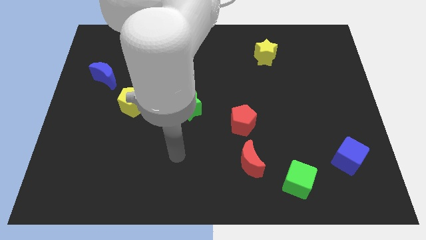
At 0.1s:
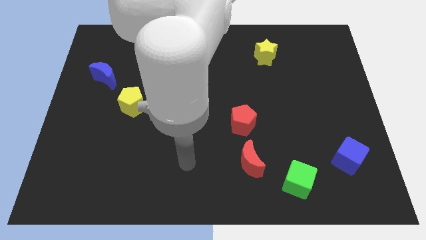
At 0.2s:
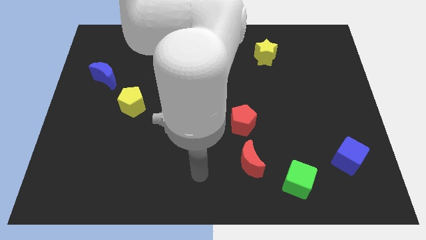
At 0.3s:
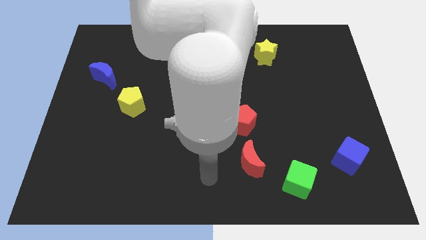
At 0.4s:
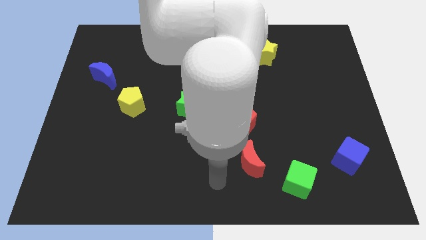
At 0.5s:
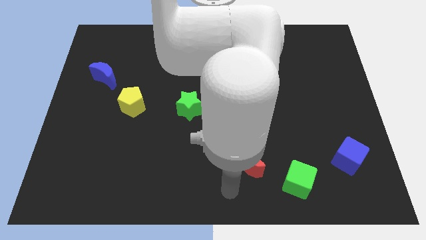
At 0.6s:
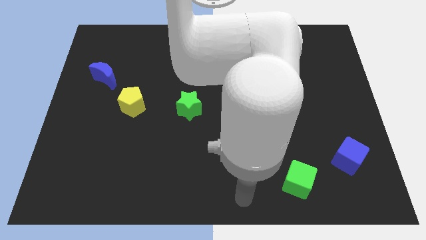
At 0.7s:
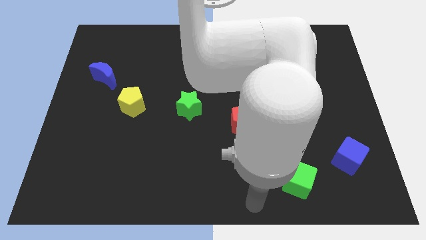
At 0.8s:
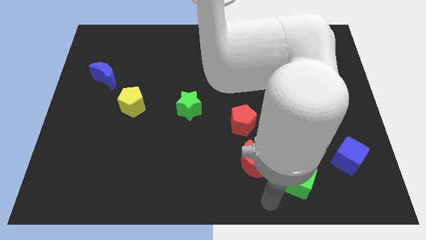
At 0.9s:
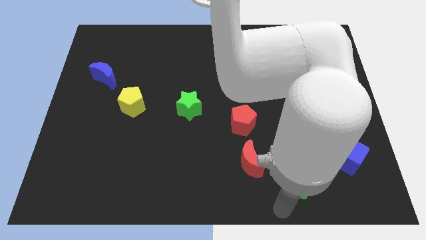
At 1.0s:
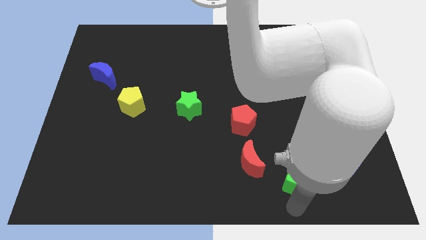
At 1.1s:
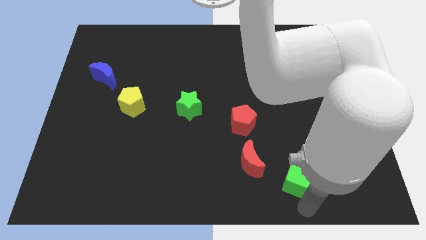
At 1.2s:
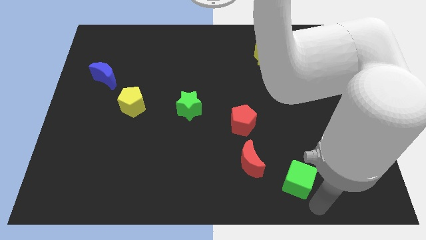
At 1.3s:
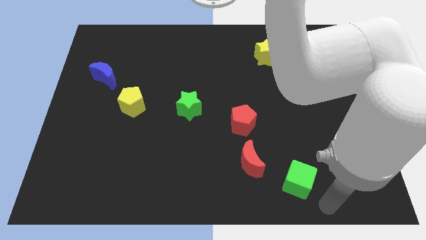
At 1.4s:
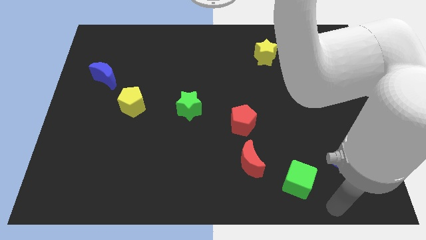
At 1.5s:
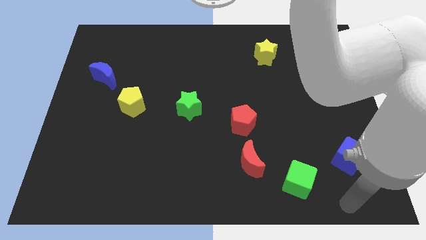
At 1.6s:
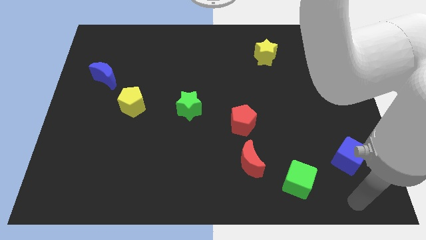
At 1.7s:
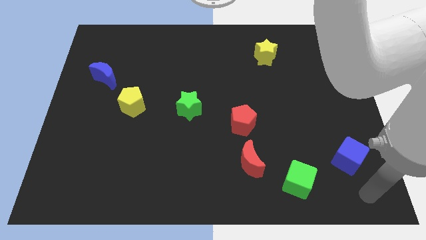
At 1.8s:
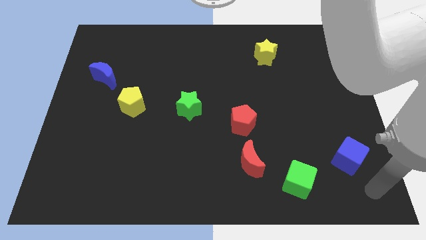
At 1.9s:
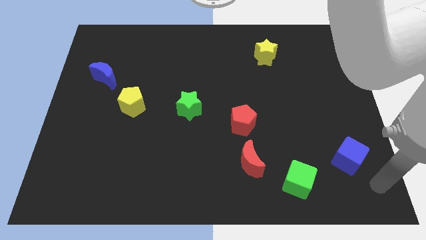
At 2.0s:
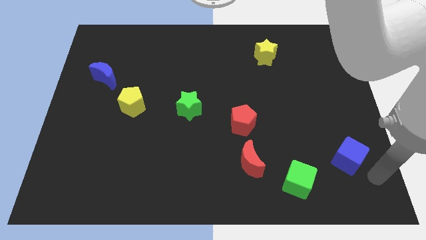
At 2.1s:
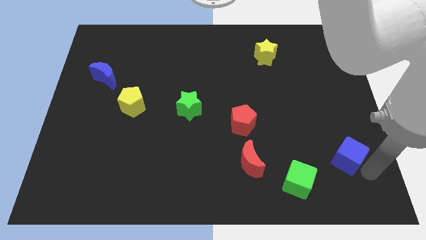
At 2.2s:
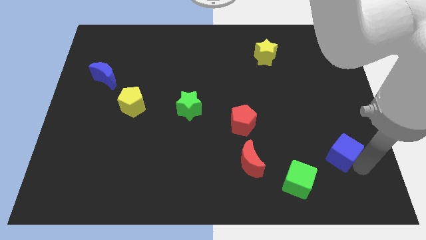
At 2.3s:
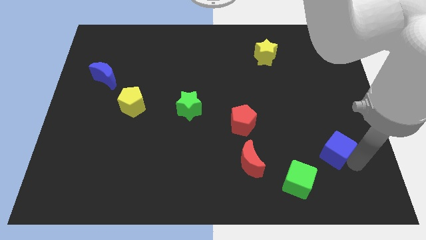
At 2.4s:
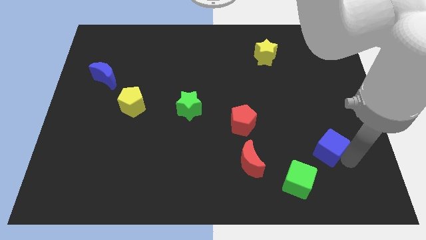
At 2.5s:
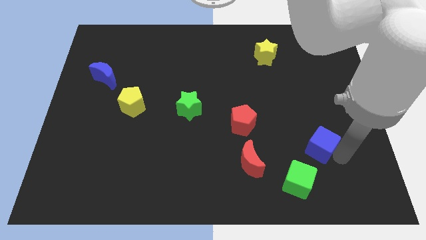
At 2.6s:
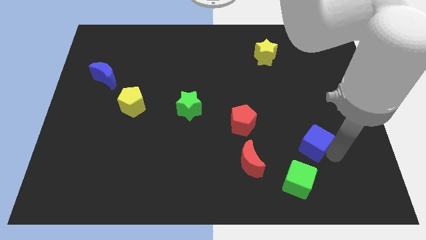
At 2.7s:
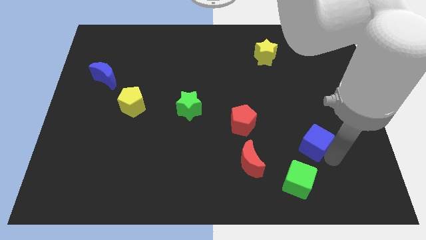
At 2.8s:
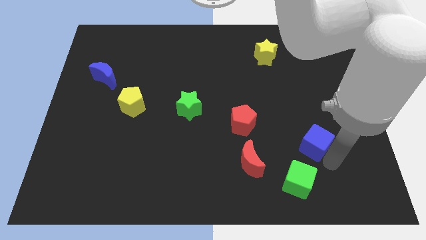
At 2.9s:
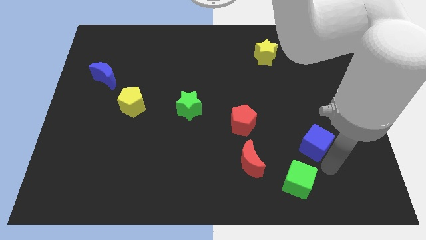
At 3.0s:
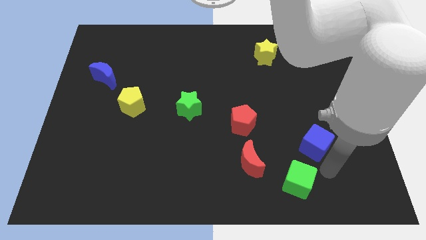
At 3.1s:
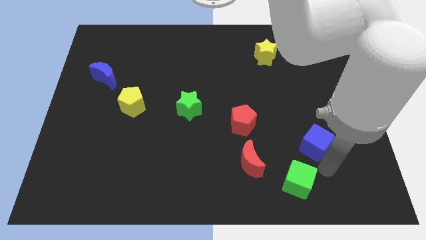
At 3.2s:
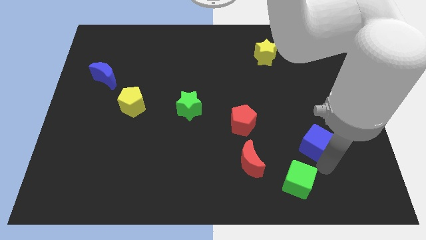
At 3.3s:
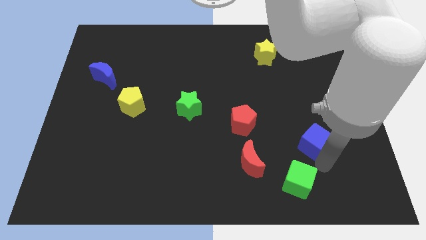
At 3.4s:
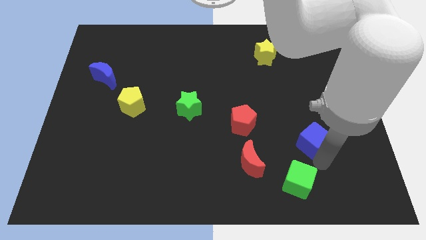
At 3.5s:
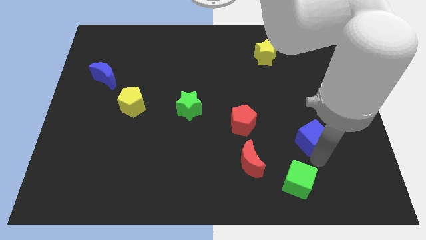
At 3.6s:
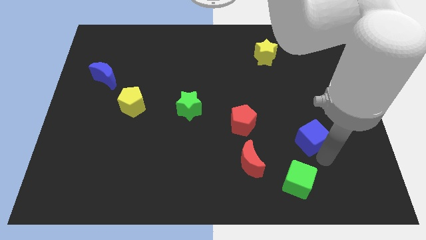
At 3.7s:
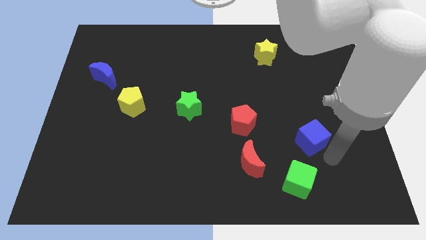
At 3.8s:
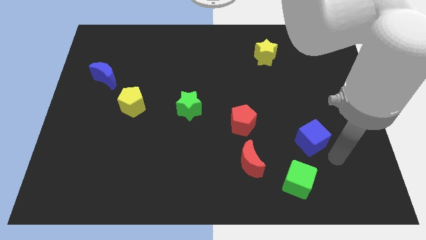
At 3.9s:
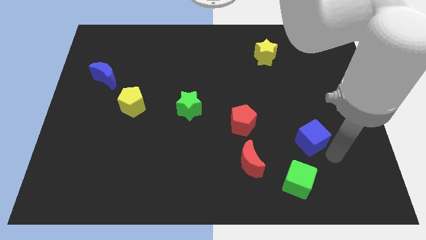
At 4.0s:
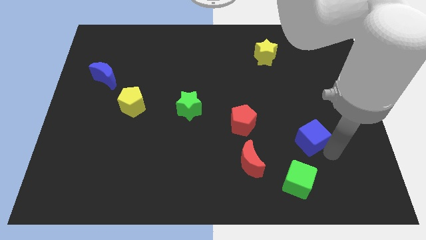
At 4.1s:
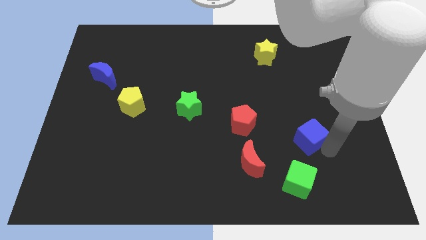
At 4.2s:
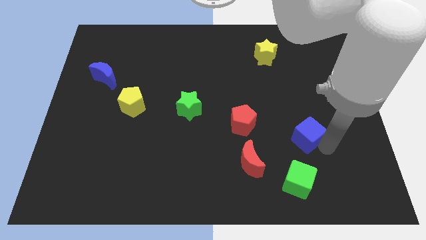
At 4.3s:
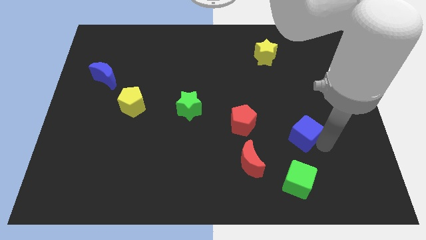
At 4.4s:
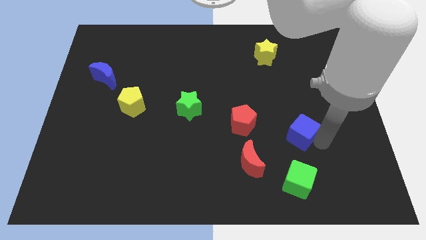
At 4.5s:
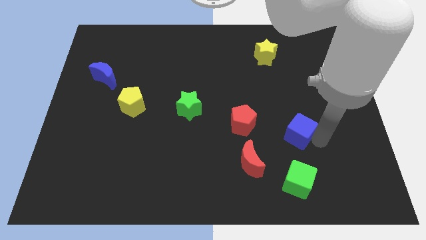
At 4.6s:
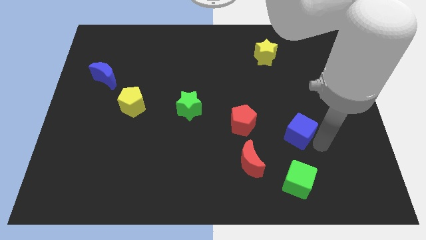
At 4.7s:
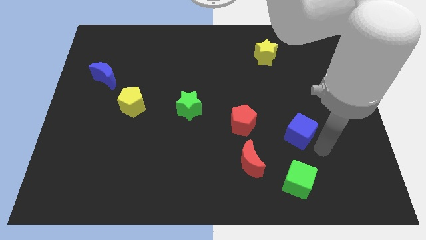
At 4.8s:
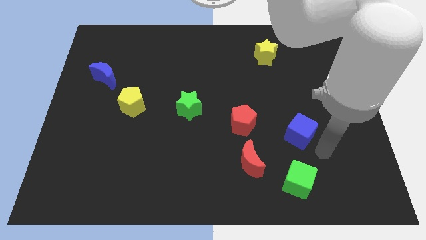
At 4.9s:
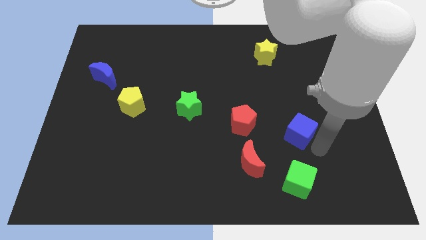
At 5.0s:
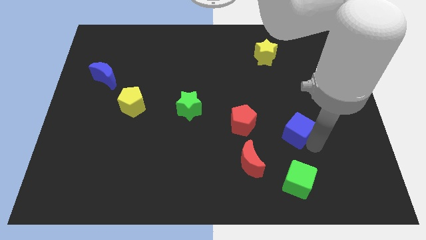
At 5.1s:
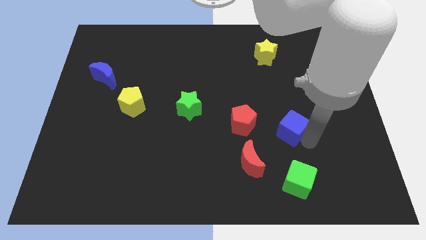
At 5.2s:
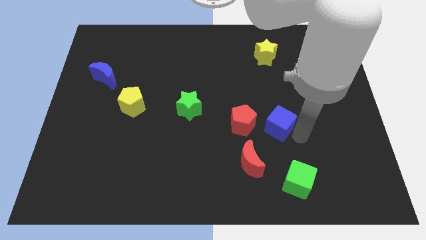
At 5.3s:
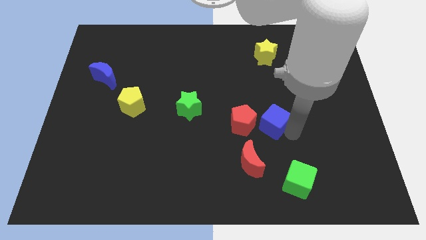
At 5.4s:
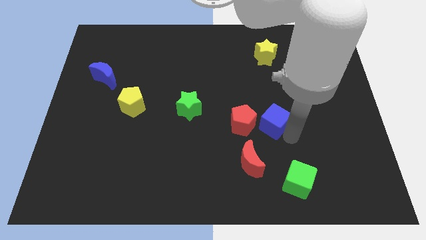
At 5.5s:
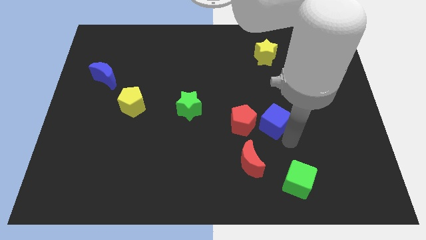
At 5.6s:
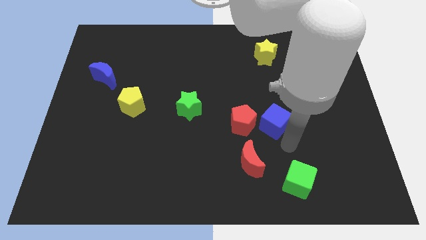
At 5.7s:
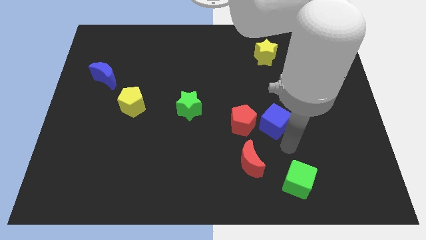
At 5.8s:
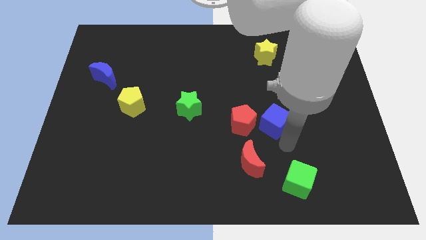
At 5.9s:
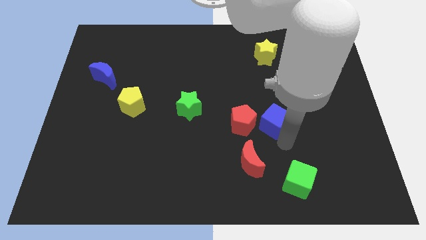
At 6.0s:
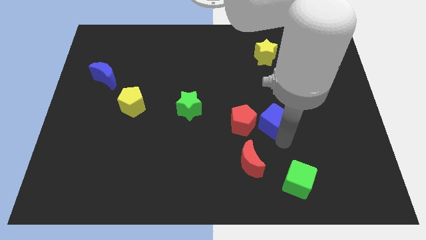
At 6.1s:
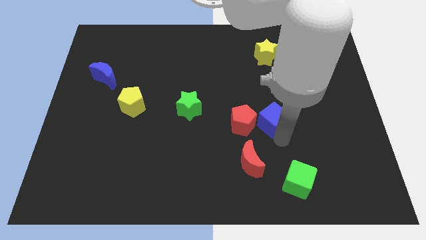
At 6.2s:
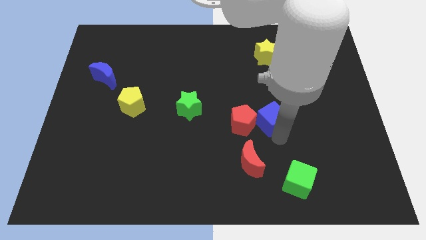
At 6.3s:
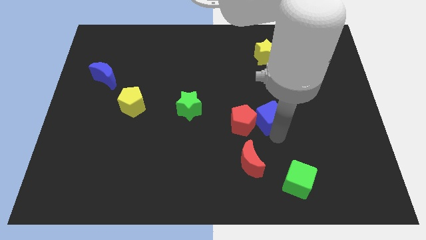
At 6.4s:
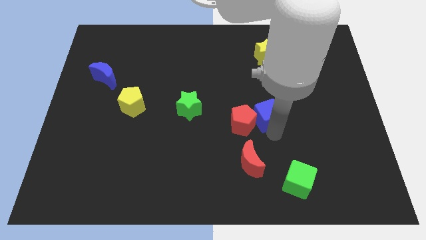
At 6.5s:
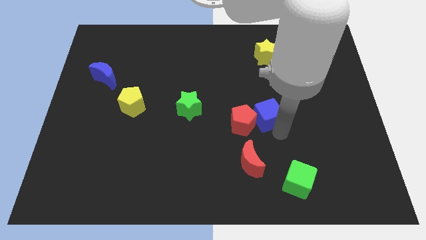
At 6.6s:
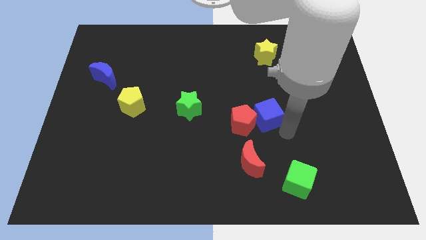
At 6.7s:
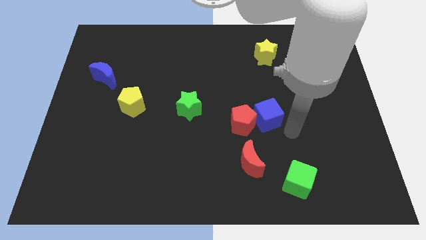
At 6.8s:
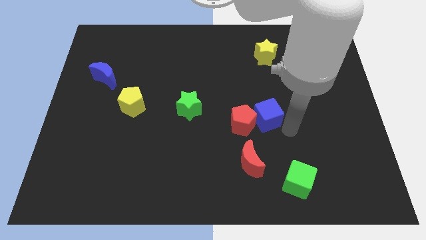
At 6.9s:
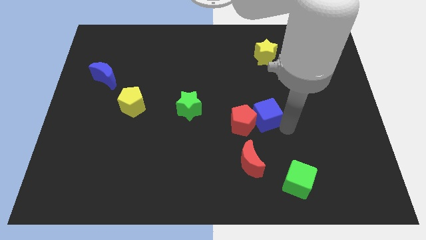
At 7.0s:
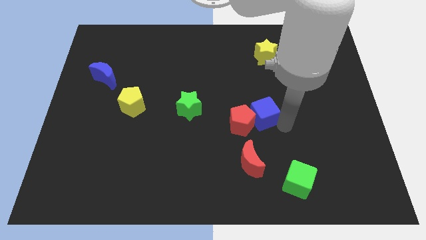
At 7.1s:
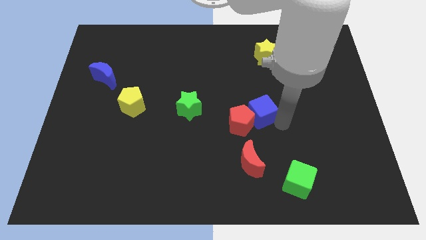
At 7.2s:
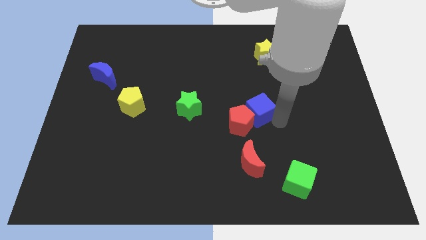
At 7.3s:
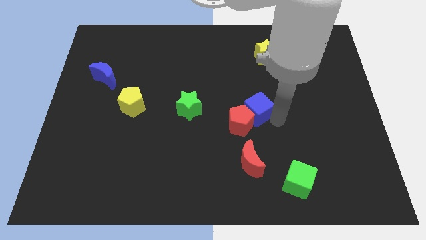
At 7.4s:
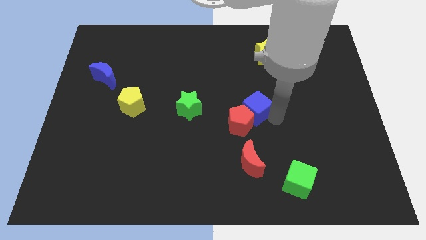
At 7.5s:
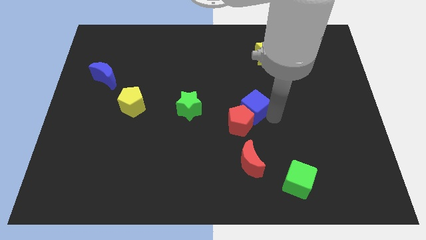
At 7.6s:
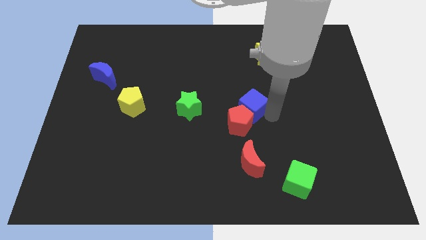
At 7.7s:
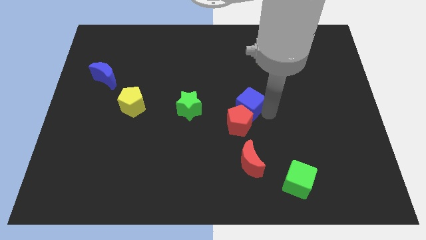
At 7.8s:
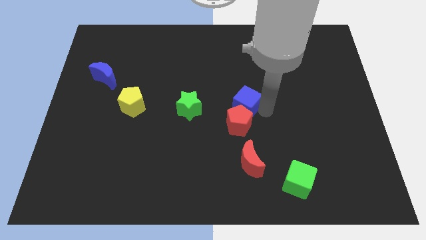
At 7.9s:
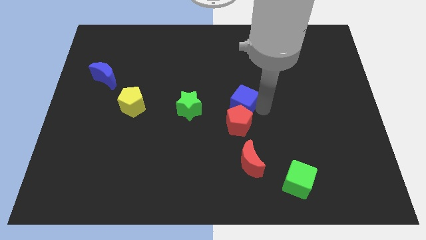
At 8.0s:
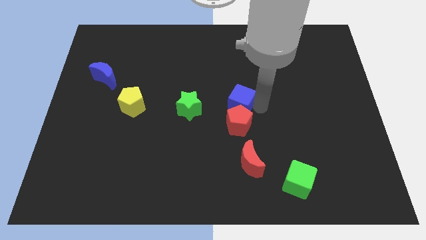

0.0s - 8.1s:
slide the blue cube to the top left of the red pentagon
